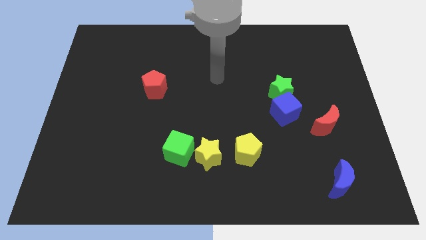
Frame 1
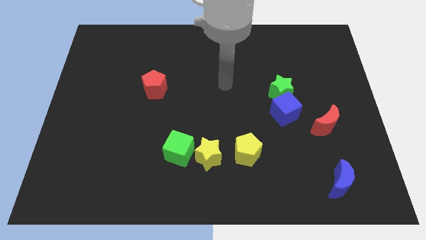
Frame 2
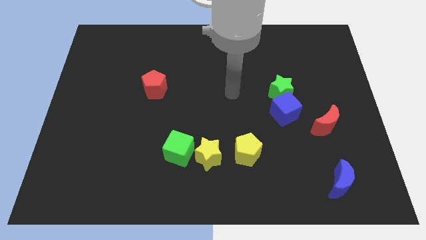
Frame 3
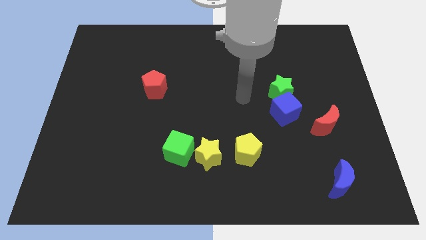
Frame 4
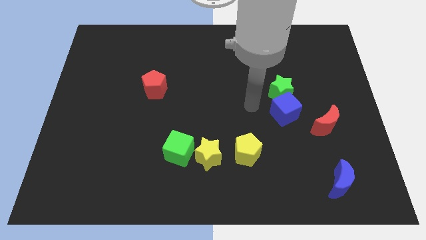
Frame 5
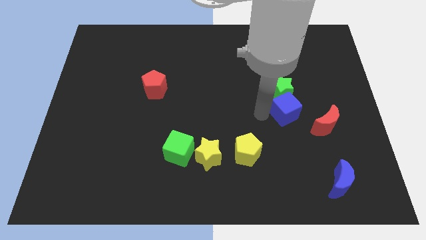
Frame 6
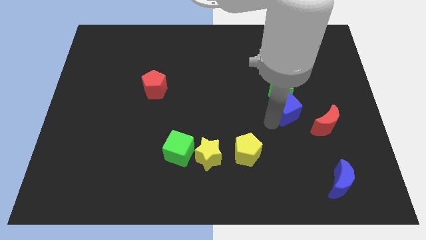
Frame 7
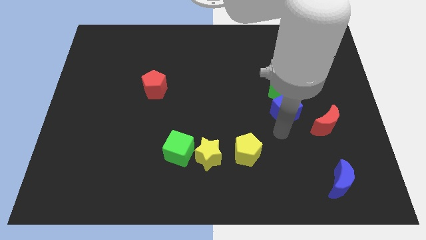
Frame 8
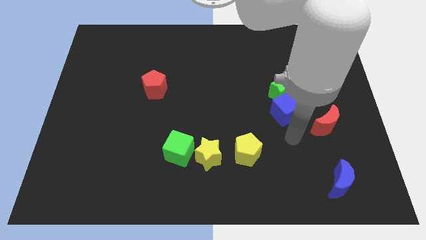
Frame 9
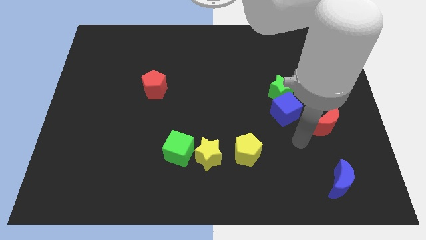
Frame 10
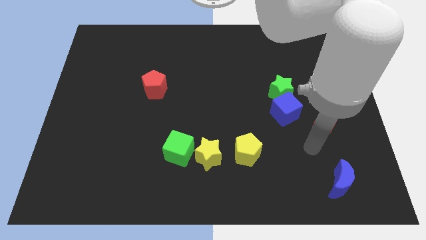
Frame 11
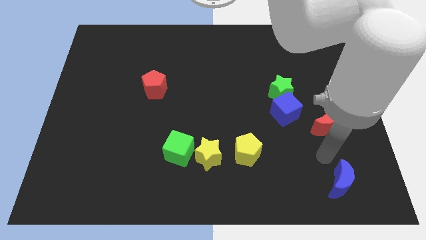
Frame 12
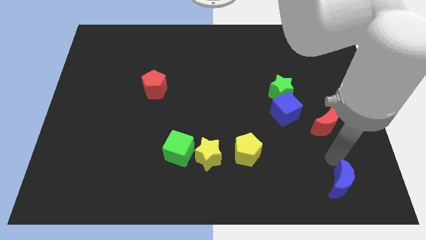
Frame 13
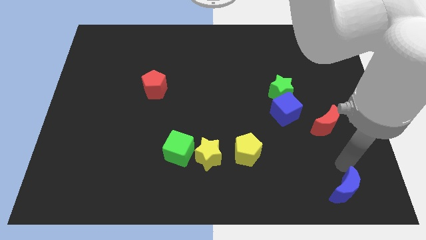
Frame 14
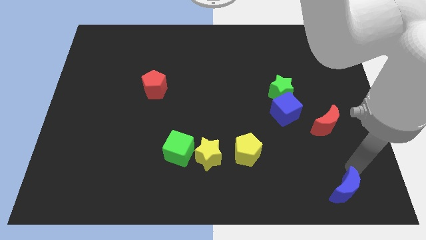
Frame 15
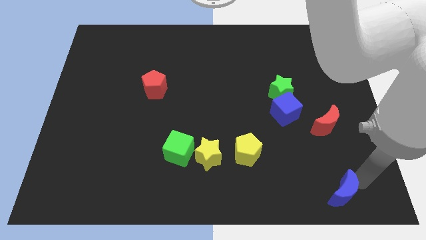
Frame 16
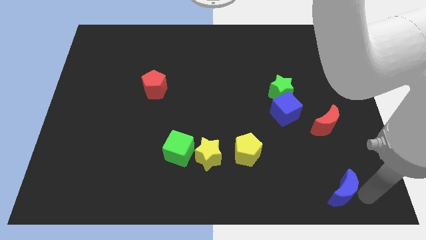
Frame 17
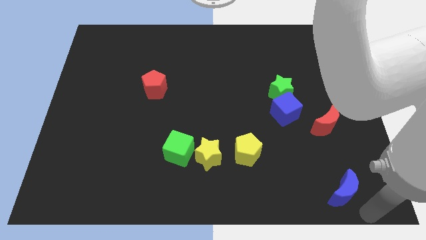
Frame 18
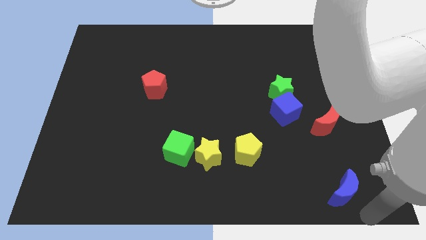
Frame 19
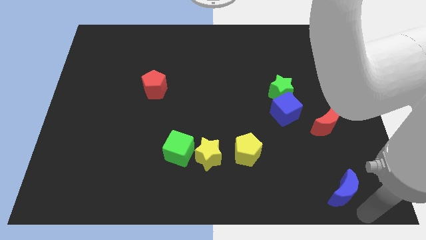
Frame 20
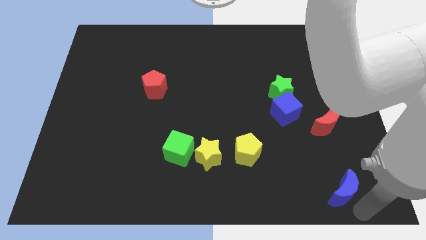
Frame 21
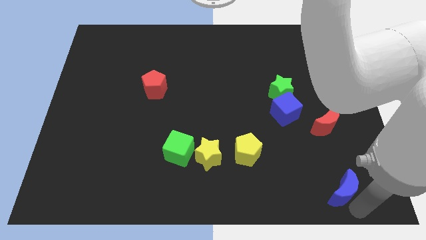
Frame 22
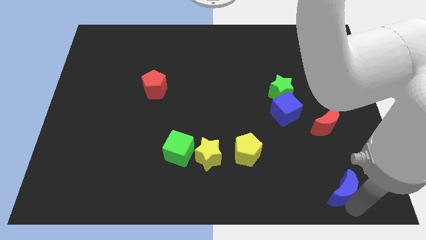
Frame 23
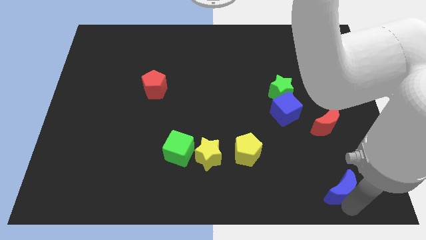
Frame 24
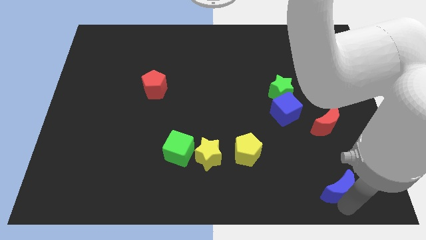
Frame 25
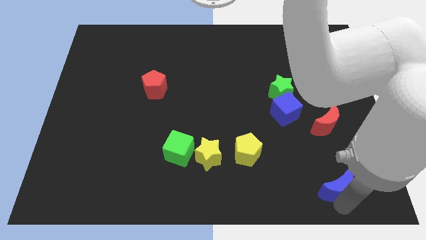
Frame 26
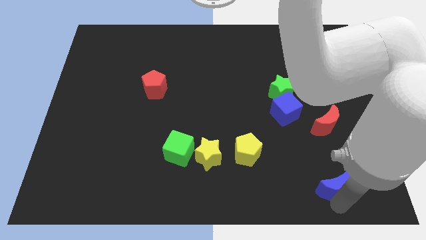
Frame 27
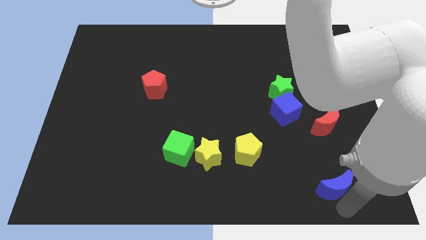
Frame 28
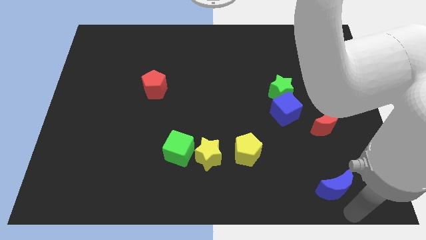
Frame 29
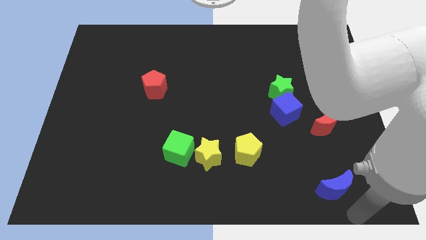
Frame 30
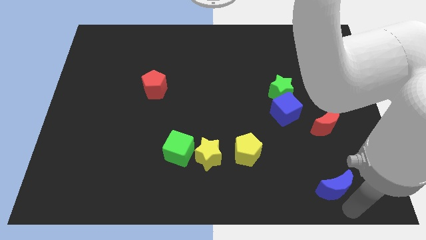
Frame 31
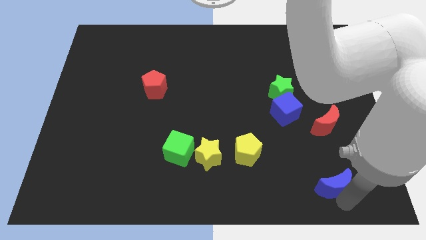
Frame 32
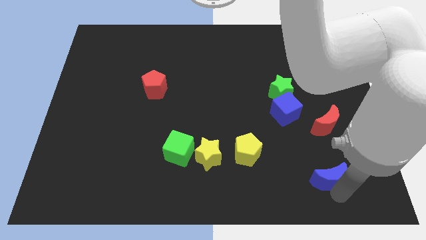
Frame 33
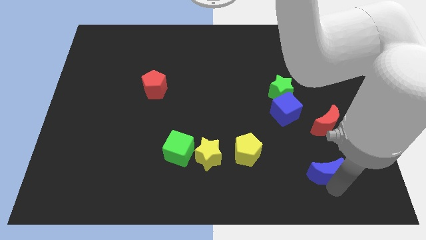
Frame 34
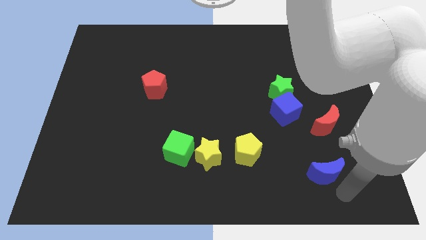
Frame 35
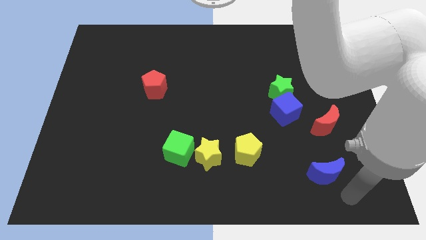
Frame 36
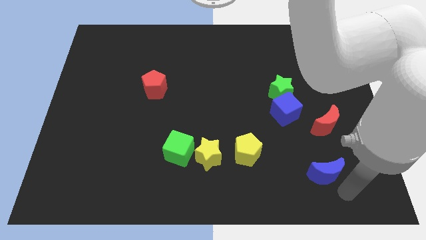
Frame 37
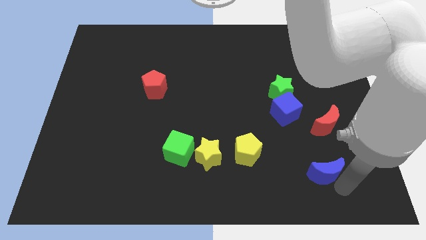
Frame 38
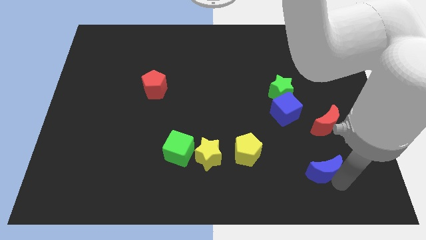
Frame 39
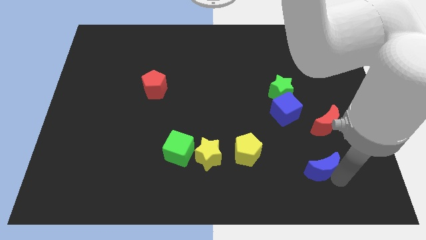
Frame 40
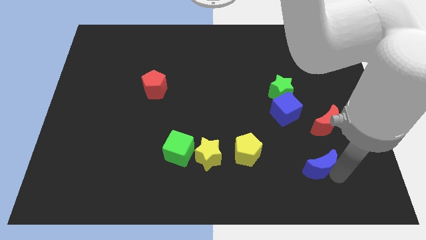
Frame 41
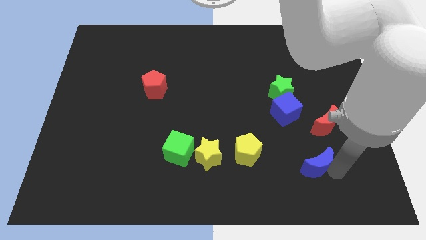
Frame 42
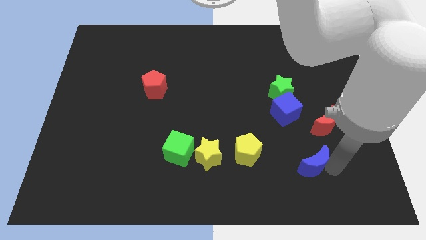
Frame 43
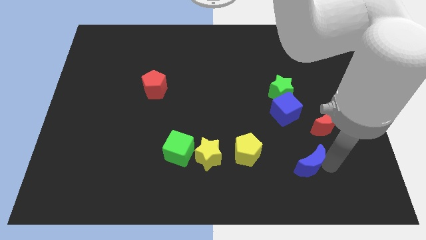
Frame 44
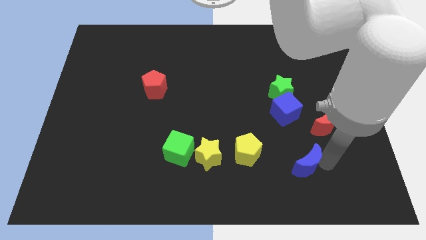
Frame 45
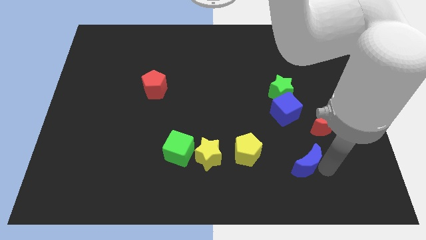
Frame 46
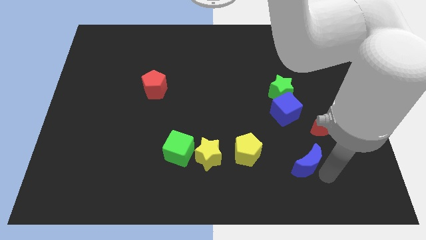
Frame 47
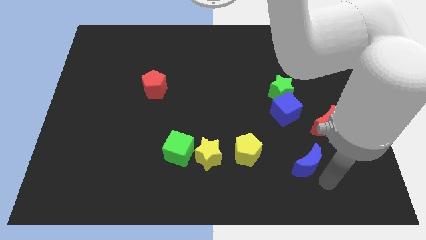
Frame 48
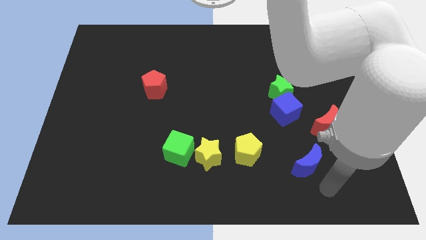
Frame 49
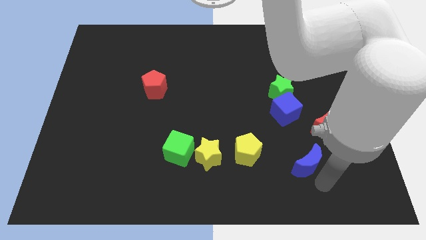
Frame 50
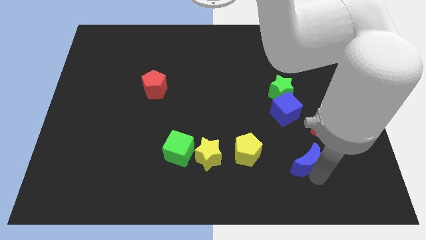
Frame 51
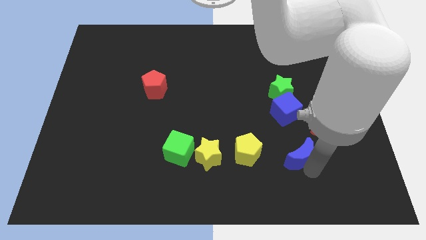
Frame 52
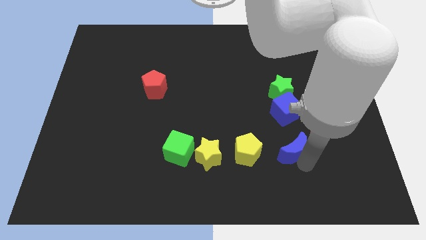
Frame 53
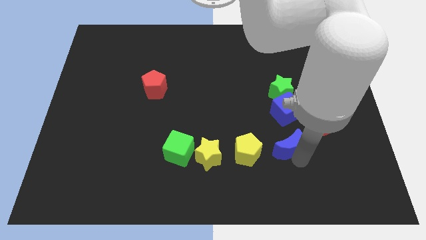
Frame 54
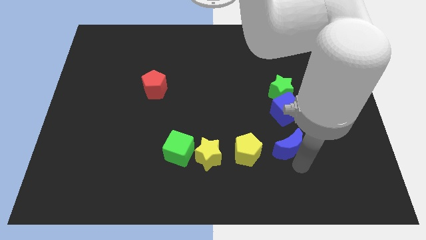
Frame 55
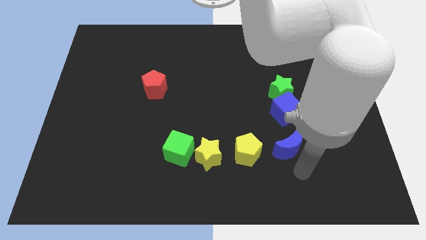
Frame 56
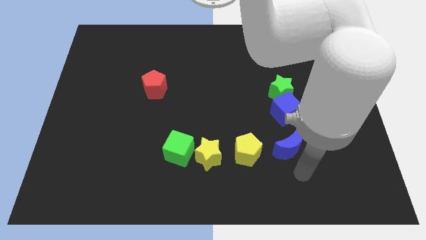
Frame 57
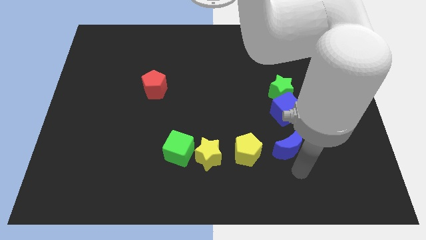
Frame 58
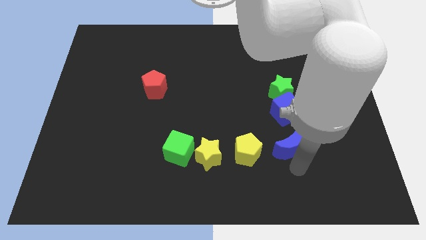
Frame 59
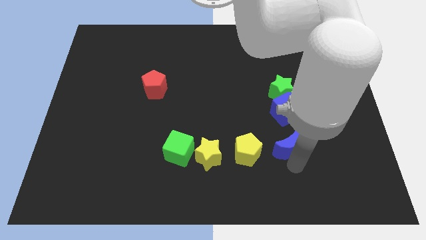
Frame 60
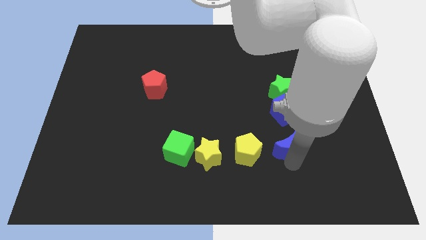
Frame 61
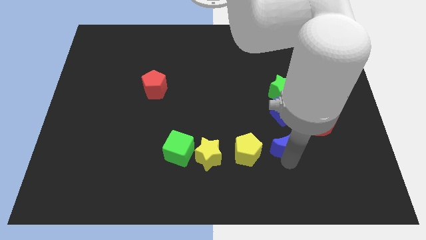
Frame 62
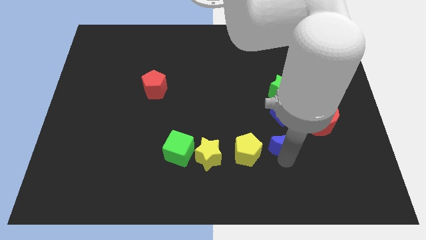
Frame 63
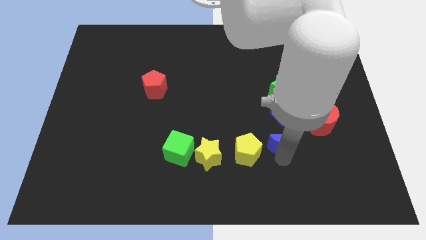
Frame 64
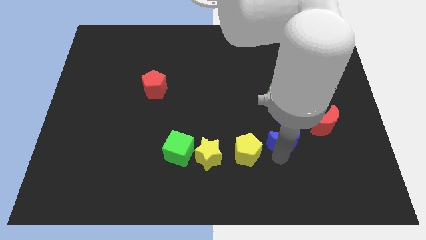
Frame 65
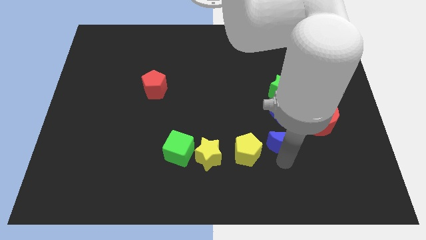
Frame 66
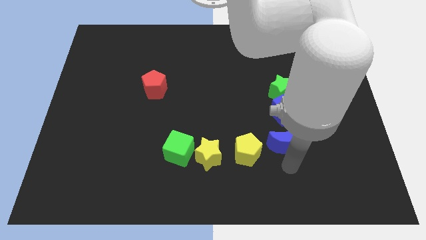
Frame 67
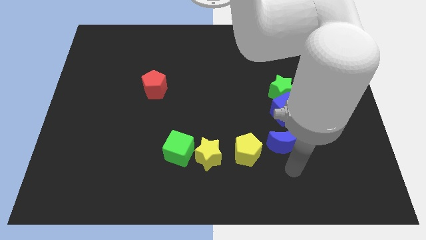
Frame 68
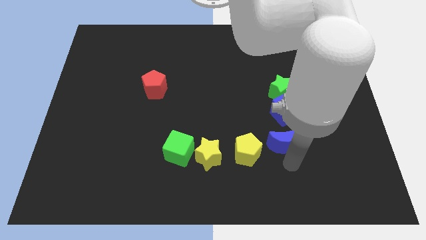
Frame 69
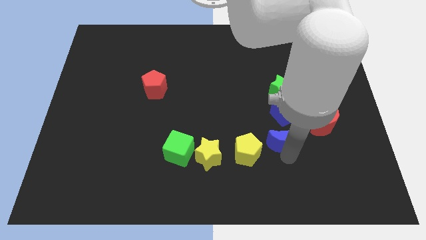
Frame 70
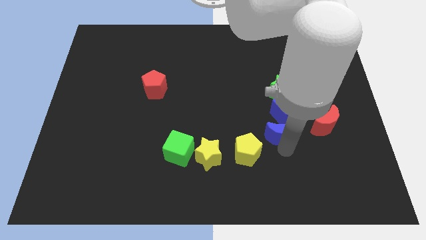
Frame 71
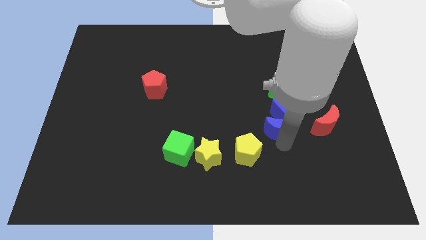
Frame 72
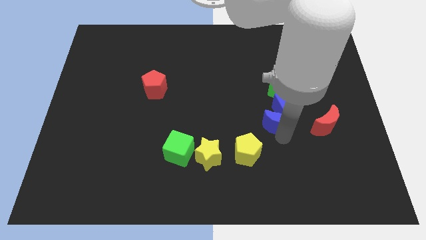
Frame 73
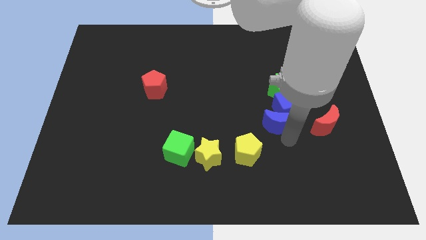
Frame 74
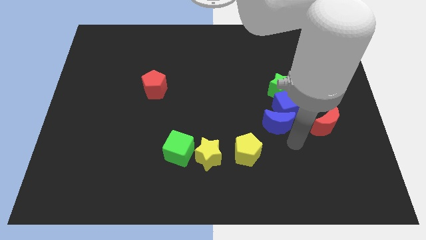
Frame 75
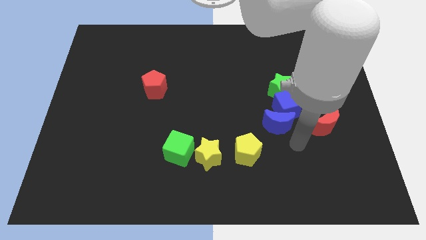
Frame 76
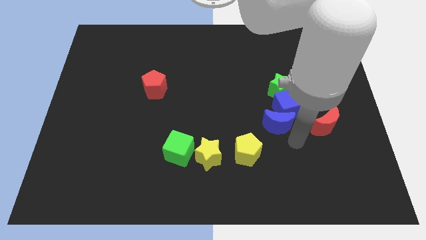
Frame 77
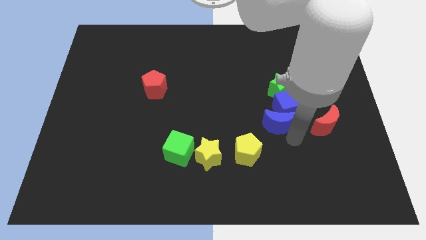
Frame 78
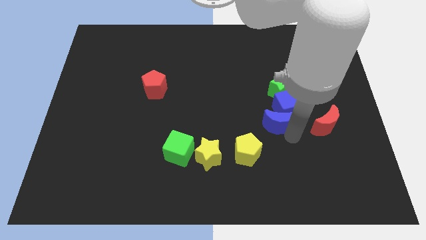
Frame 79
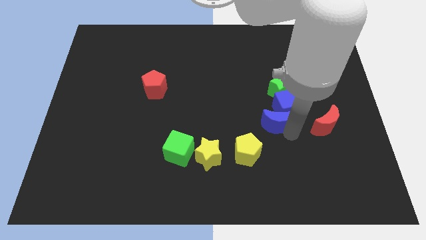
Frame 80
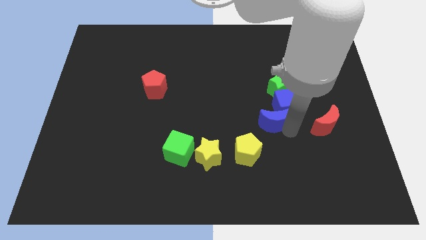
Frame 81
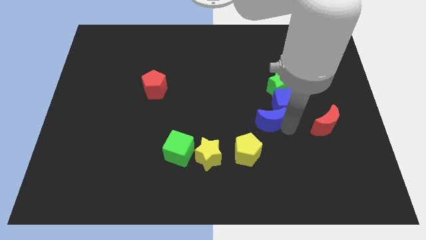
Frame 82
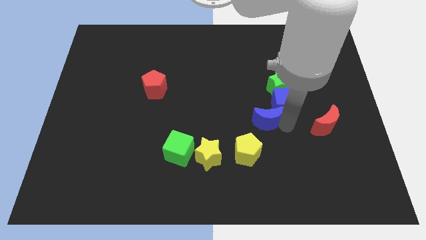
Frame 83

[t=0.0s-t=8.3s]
move the blue moon to the bottom left of the green star
